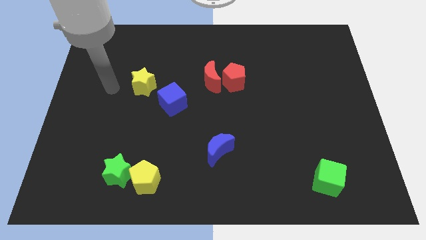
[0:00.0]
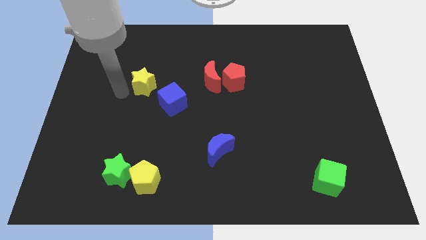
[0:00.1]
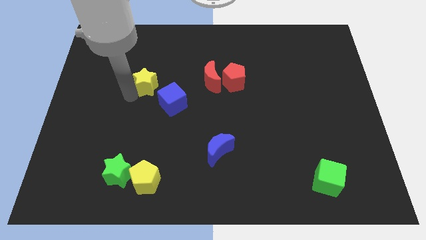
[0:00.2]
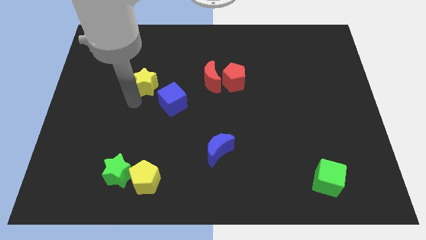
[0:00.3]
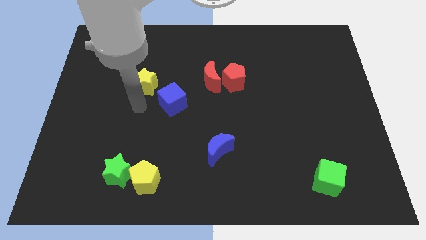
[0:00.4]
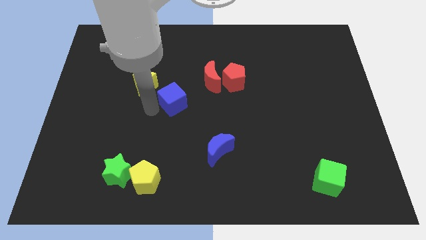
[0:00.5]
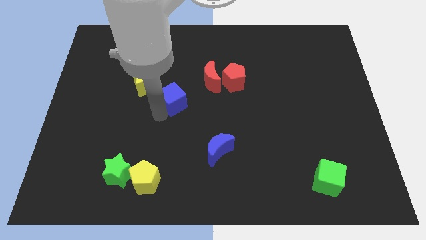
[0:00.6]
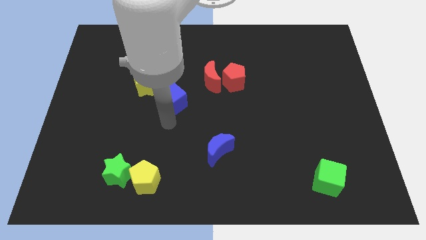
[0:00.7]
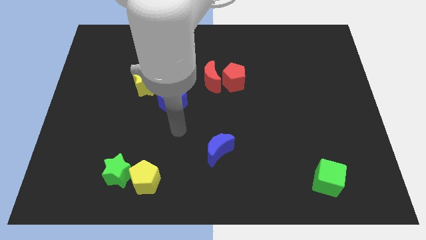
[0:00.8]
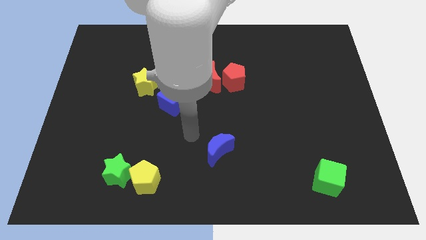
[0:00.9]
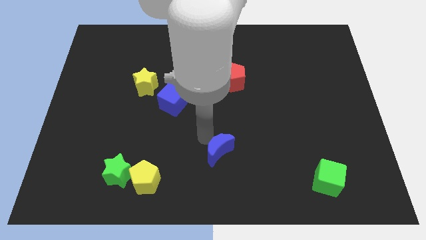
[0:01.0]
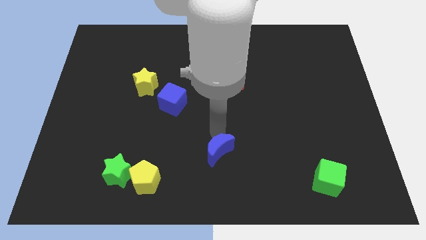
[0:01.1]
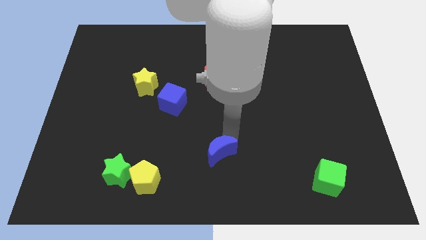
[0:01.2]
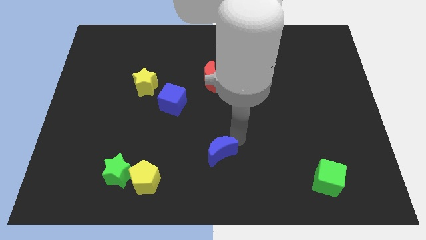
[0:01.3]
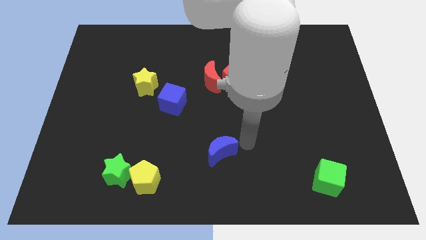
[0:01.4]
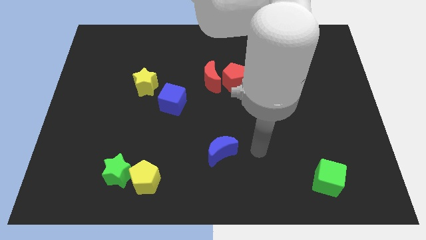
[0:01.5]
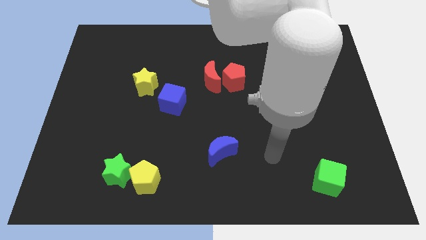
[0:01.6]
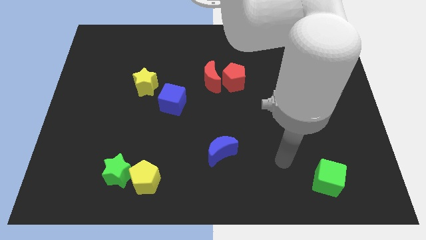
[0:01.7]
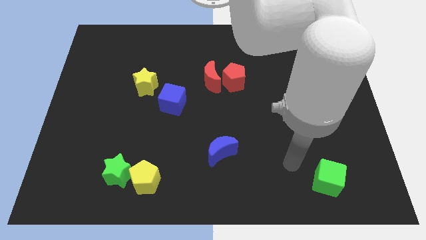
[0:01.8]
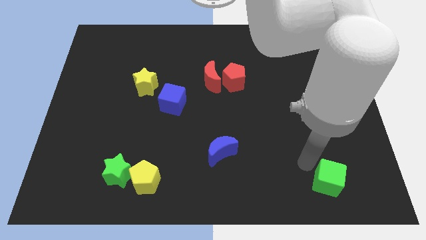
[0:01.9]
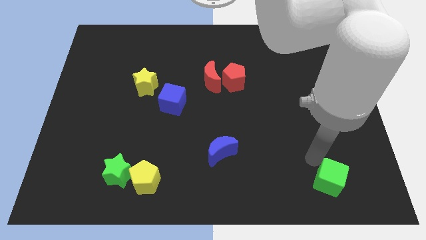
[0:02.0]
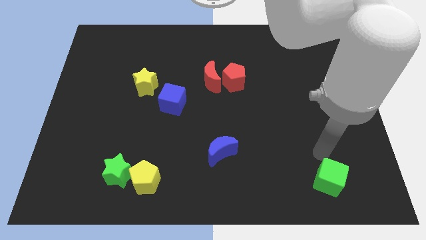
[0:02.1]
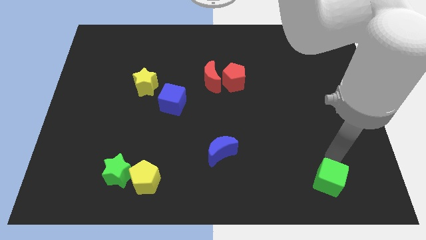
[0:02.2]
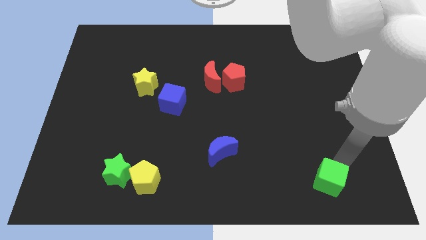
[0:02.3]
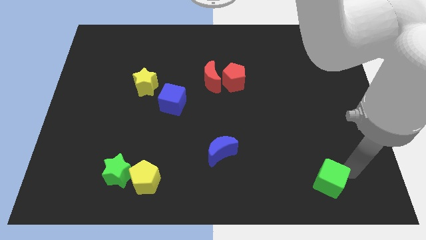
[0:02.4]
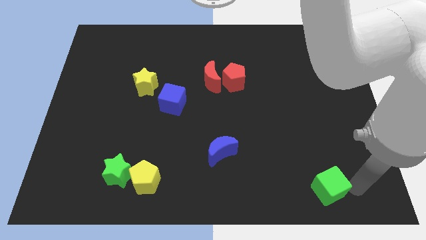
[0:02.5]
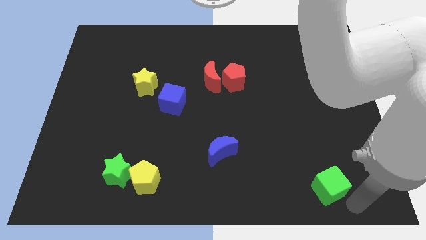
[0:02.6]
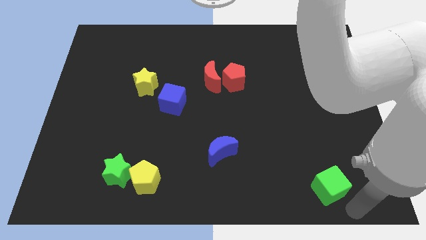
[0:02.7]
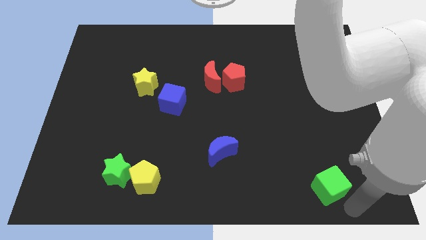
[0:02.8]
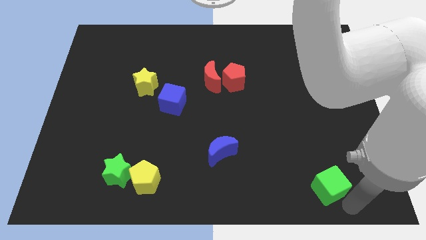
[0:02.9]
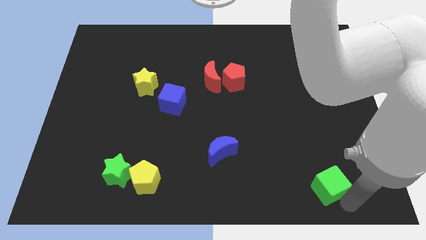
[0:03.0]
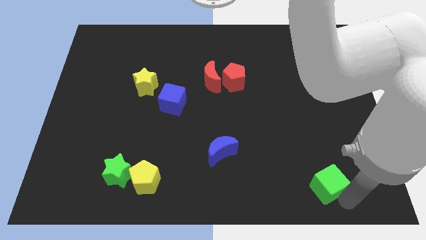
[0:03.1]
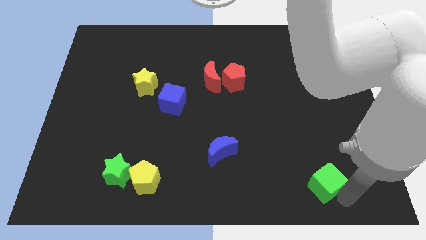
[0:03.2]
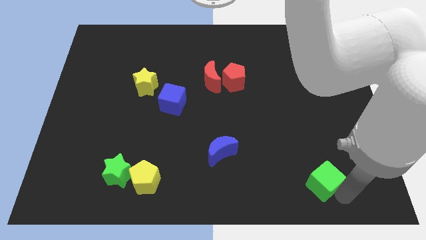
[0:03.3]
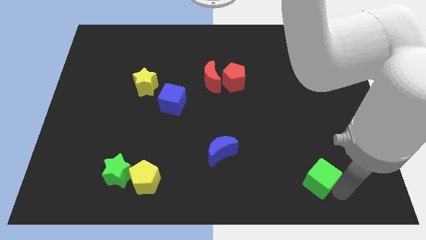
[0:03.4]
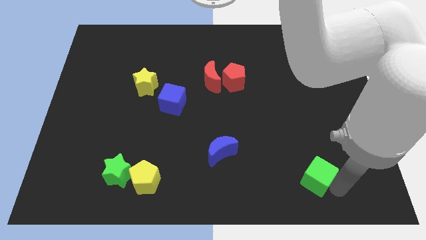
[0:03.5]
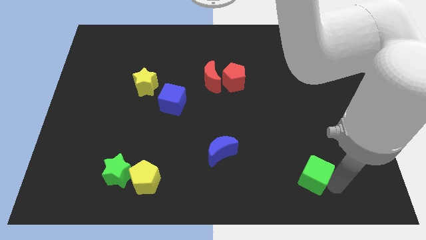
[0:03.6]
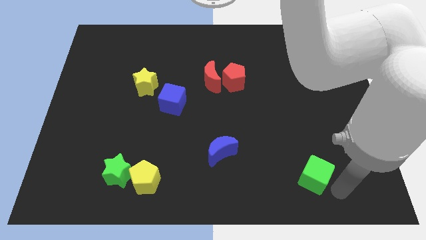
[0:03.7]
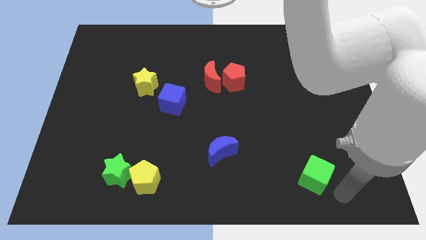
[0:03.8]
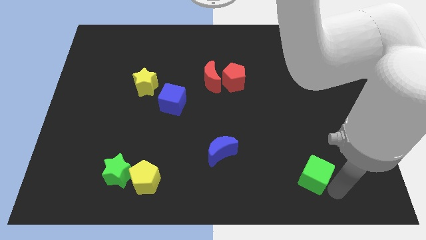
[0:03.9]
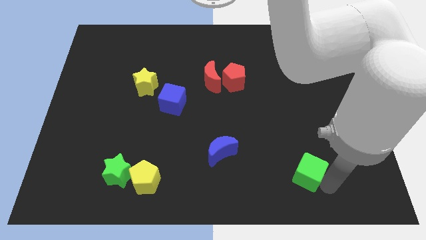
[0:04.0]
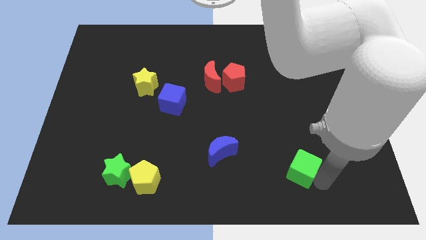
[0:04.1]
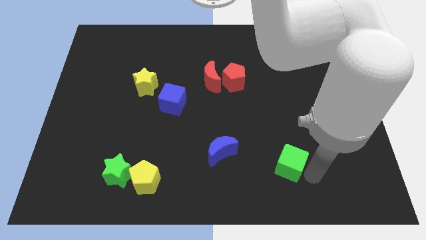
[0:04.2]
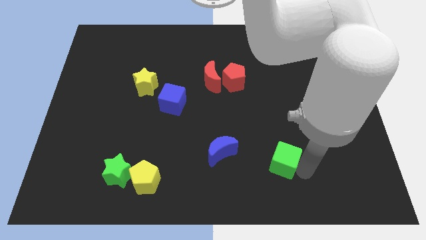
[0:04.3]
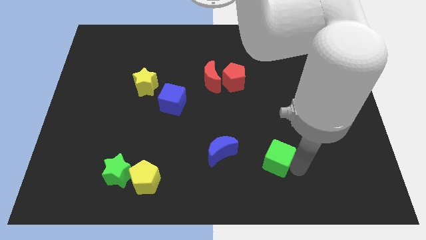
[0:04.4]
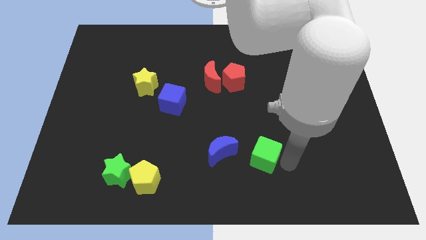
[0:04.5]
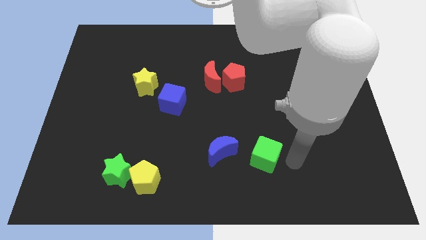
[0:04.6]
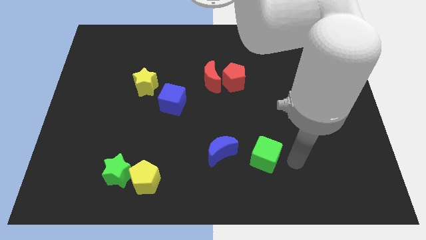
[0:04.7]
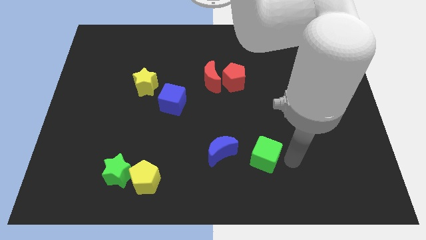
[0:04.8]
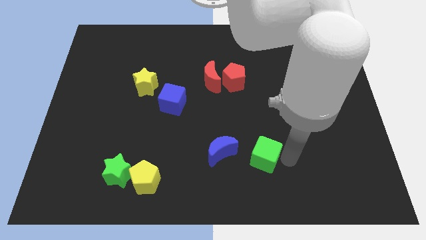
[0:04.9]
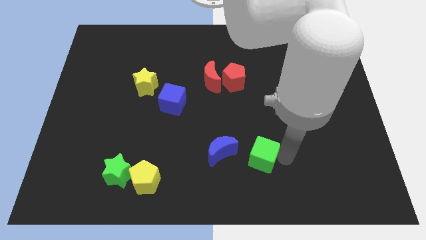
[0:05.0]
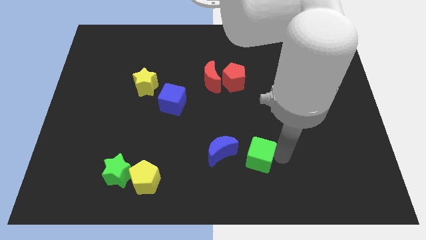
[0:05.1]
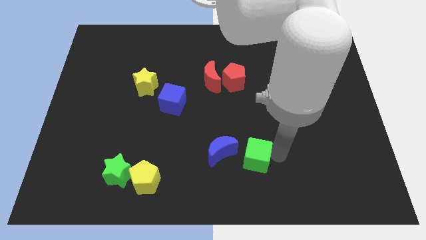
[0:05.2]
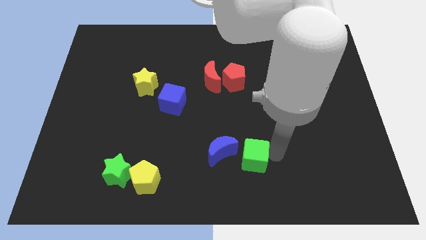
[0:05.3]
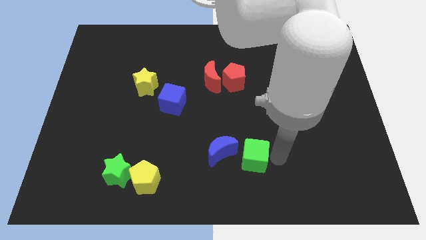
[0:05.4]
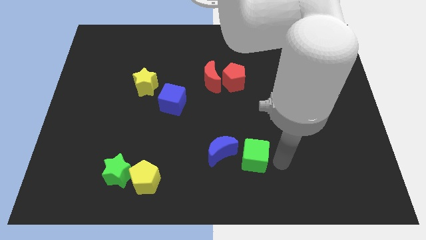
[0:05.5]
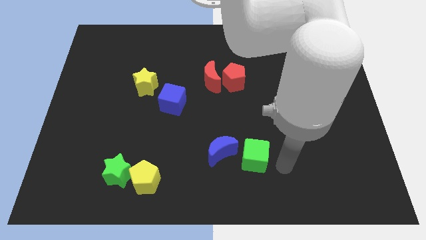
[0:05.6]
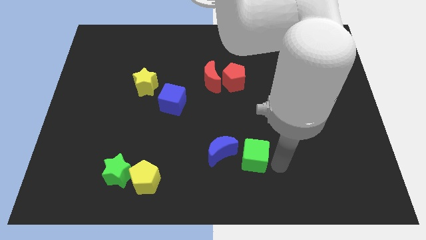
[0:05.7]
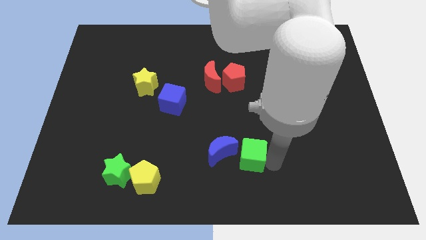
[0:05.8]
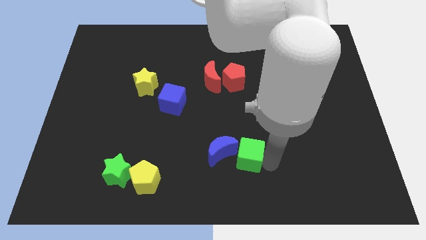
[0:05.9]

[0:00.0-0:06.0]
slide the green cube to the blue moon

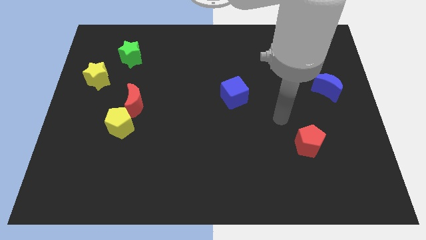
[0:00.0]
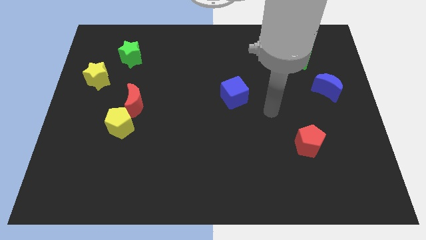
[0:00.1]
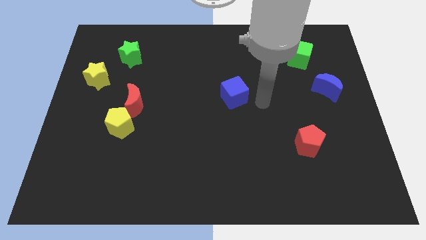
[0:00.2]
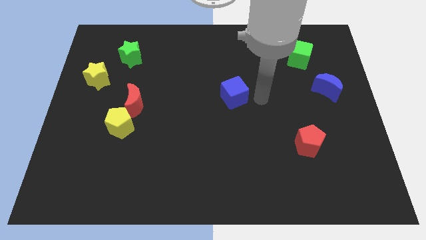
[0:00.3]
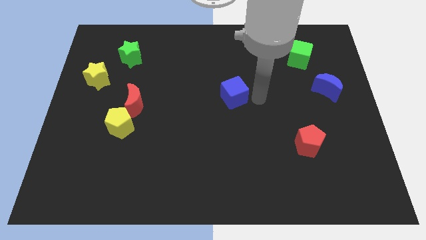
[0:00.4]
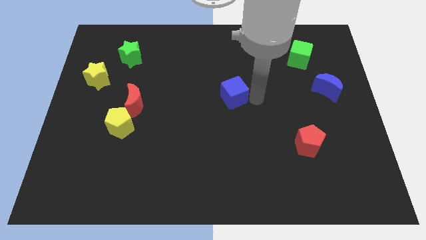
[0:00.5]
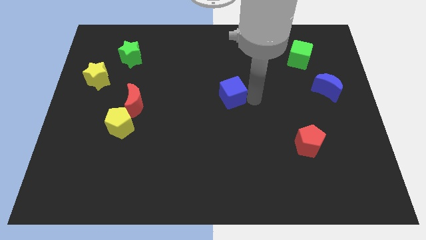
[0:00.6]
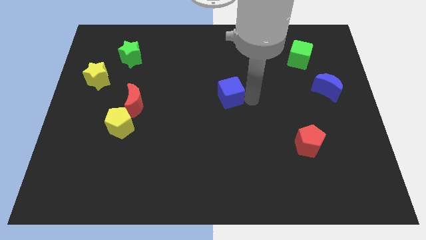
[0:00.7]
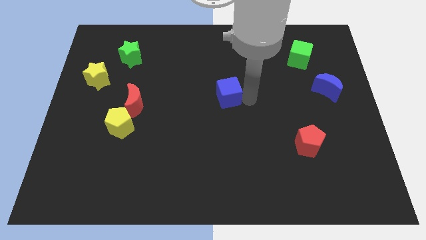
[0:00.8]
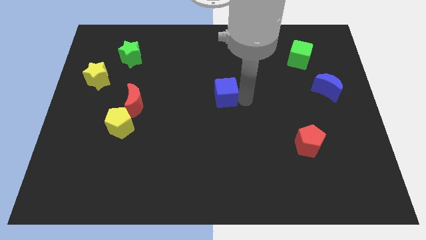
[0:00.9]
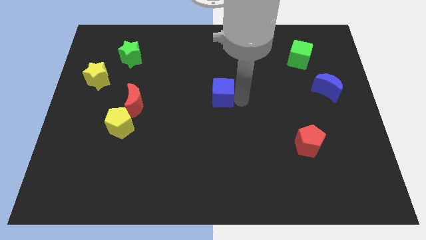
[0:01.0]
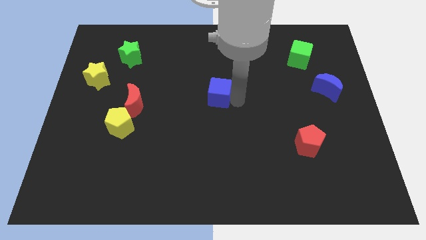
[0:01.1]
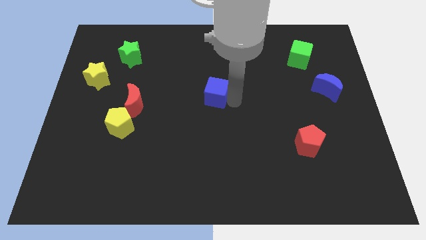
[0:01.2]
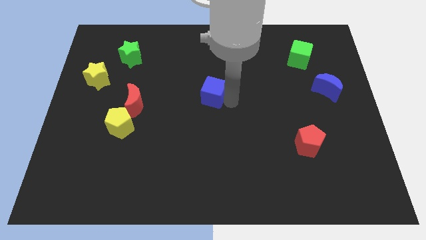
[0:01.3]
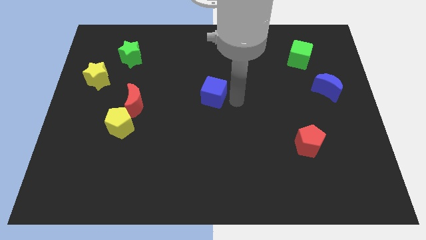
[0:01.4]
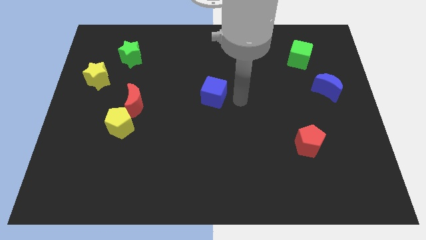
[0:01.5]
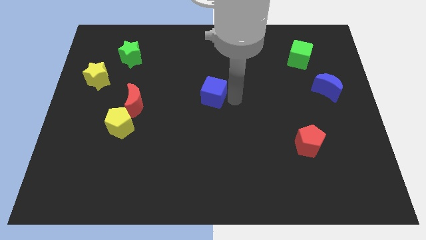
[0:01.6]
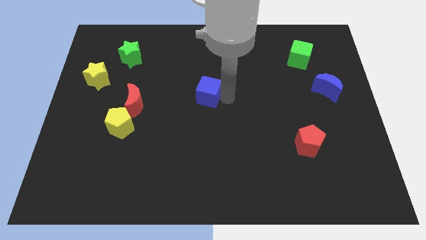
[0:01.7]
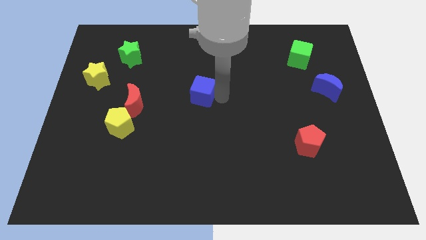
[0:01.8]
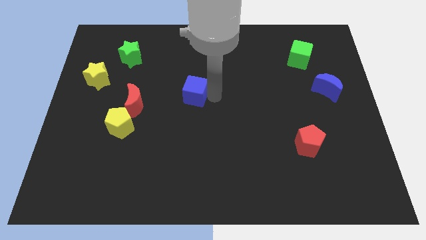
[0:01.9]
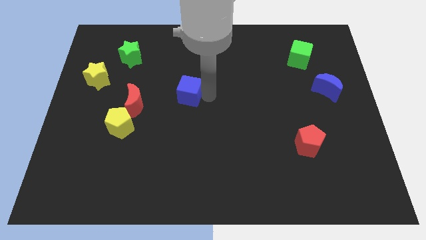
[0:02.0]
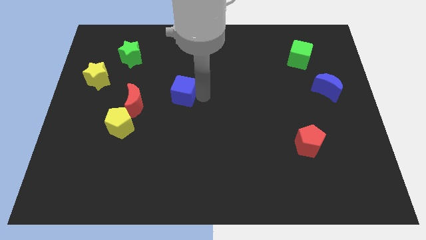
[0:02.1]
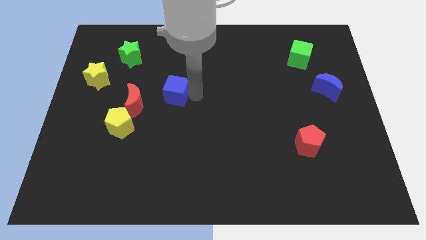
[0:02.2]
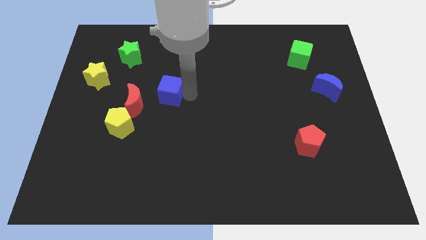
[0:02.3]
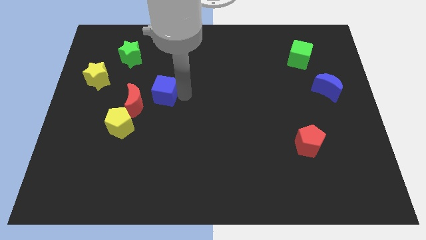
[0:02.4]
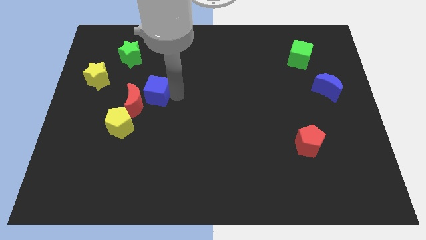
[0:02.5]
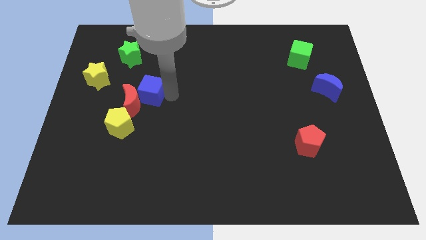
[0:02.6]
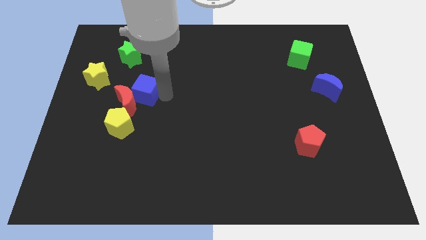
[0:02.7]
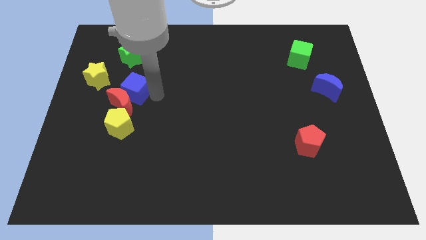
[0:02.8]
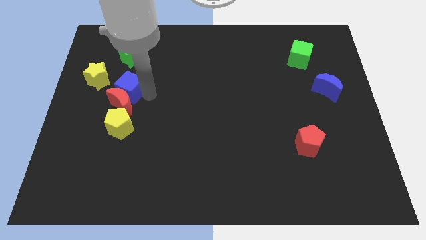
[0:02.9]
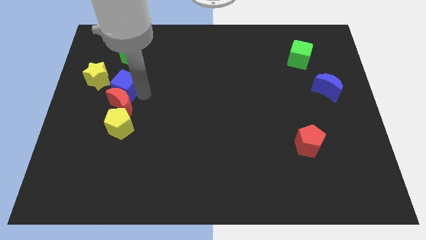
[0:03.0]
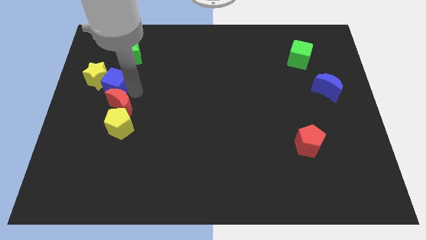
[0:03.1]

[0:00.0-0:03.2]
push the blue cube to the yellow star
